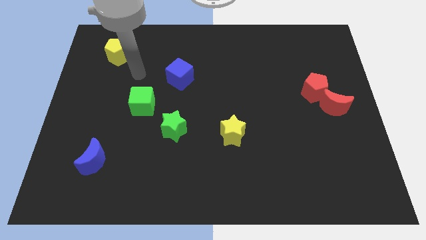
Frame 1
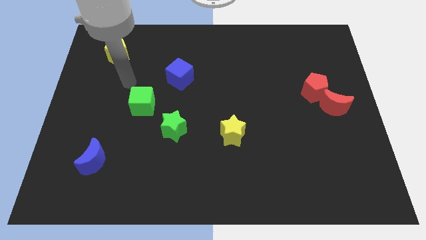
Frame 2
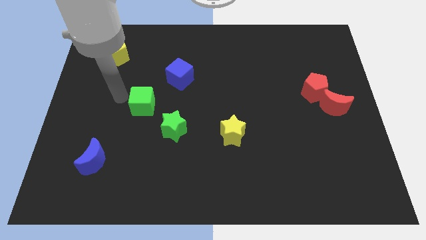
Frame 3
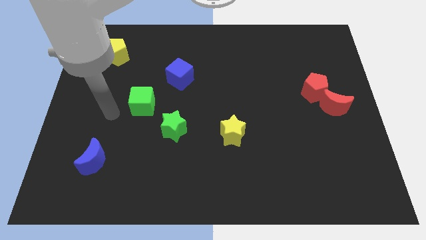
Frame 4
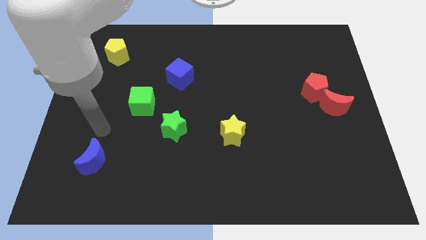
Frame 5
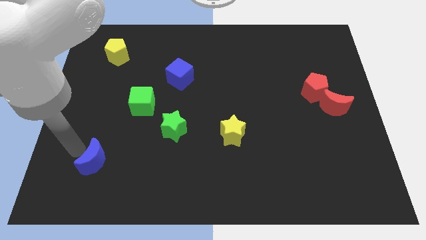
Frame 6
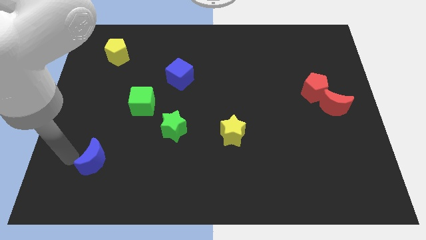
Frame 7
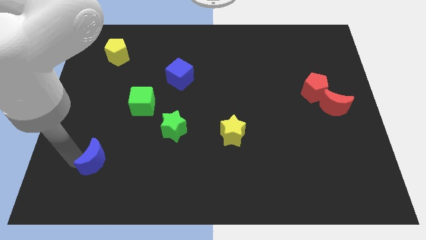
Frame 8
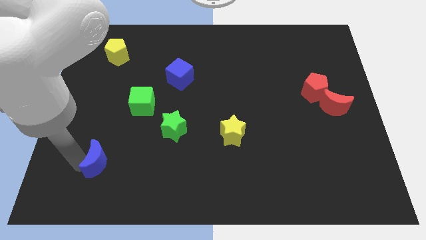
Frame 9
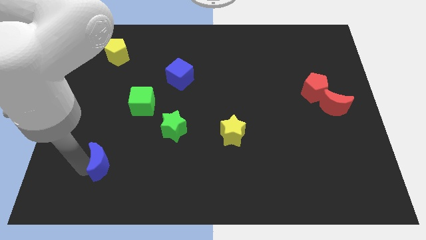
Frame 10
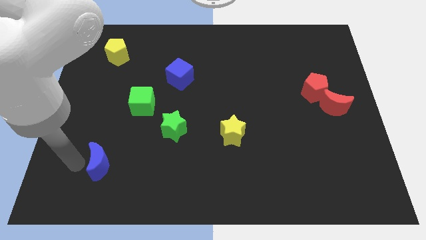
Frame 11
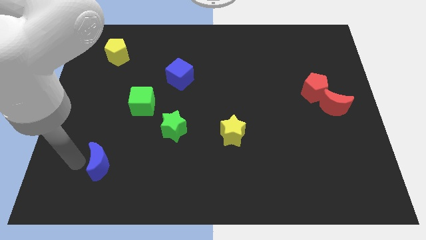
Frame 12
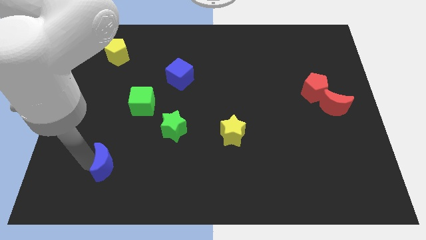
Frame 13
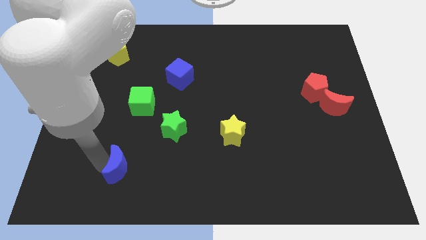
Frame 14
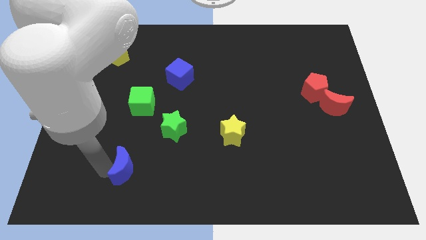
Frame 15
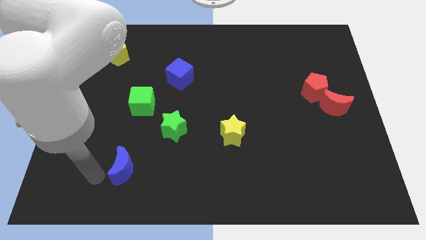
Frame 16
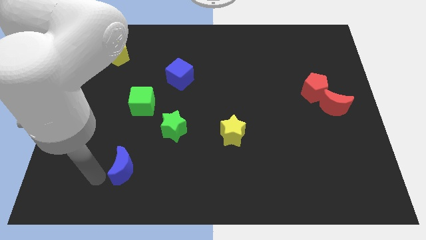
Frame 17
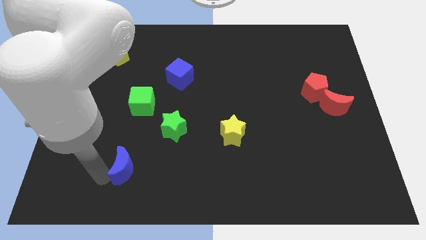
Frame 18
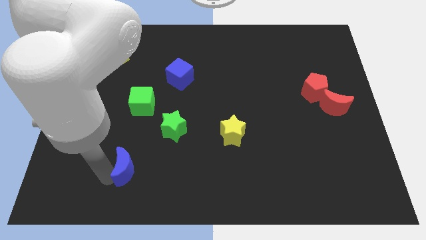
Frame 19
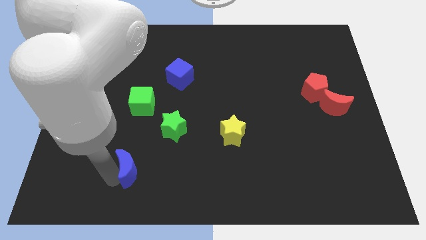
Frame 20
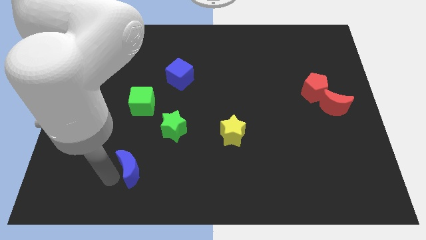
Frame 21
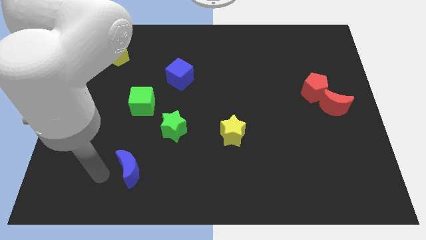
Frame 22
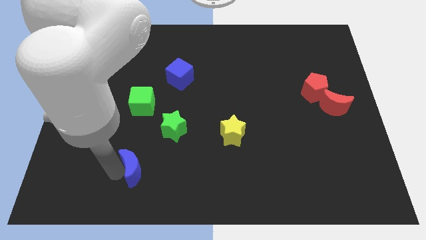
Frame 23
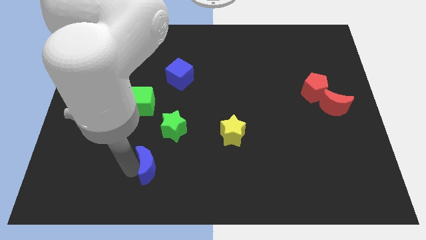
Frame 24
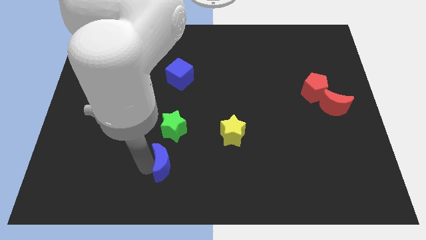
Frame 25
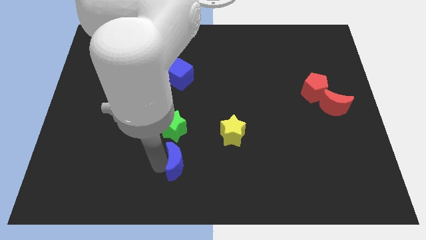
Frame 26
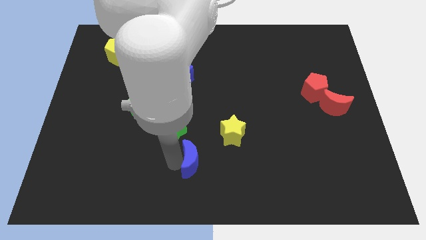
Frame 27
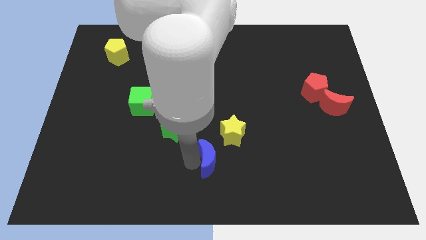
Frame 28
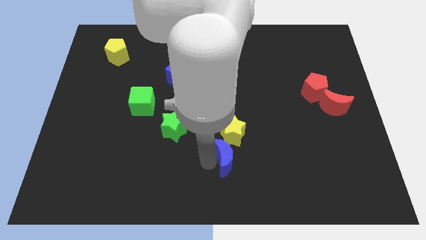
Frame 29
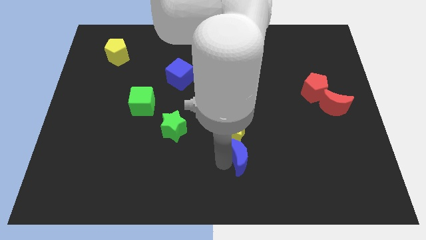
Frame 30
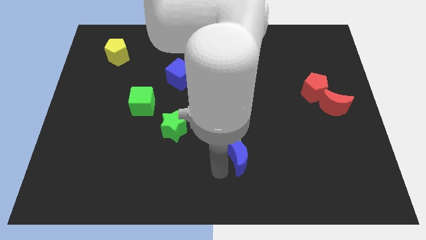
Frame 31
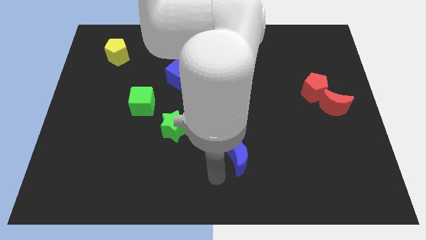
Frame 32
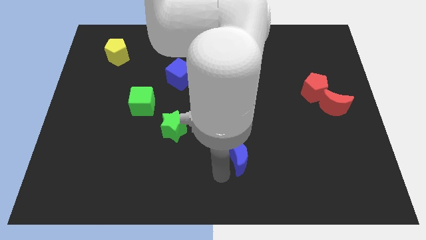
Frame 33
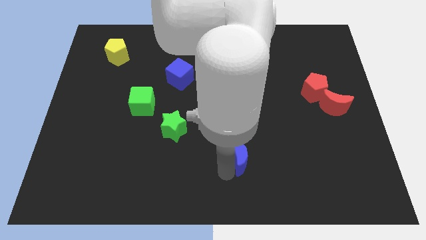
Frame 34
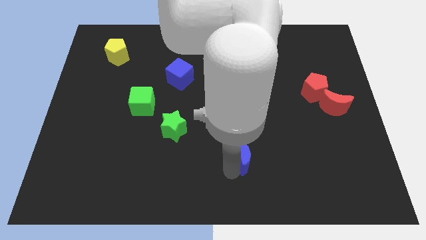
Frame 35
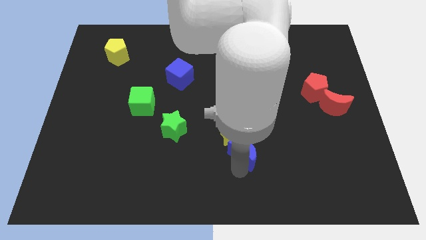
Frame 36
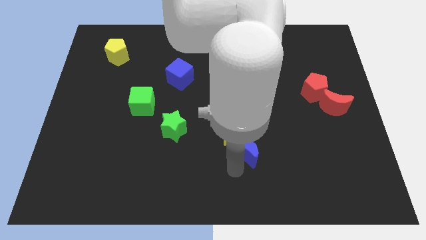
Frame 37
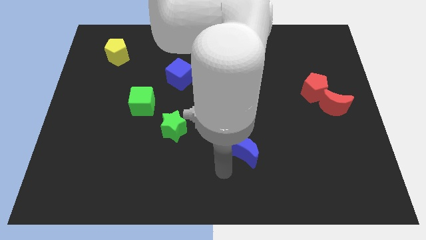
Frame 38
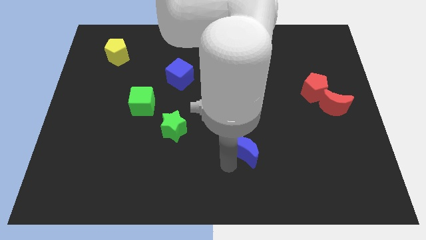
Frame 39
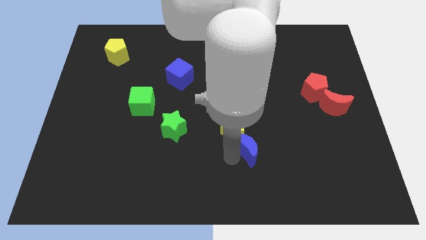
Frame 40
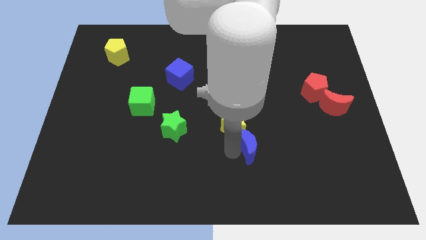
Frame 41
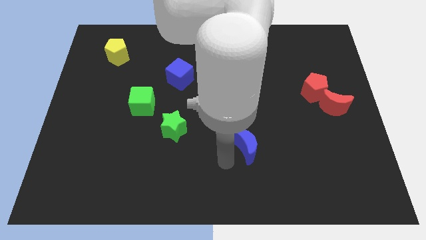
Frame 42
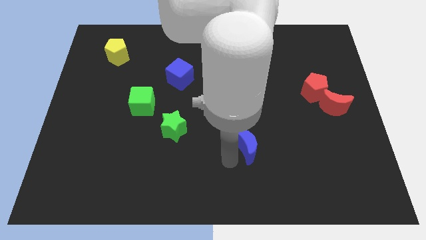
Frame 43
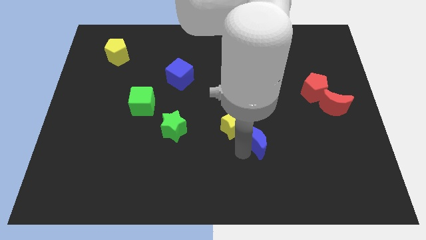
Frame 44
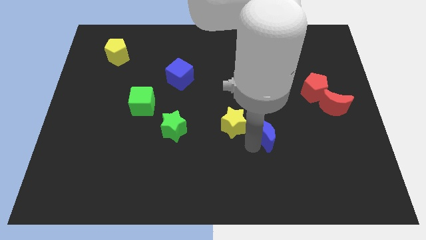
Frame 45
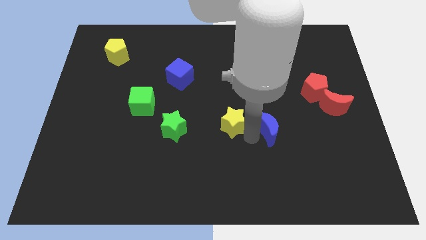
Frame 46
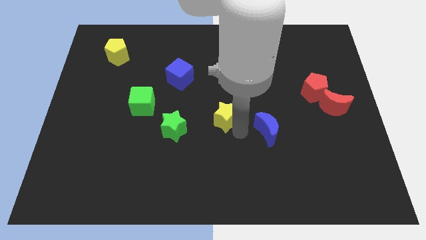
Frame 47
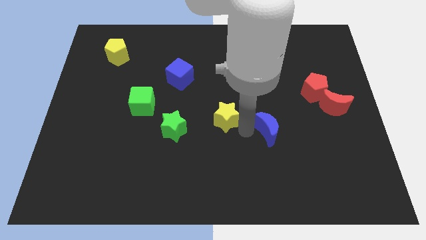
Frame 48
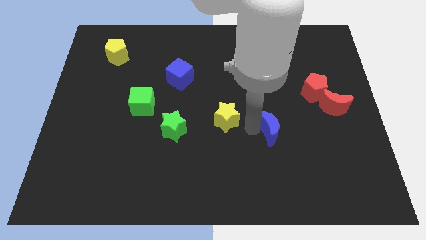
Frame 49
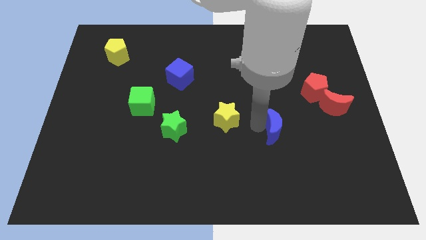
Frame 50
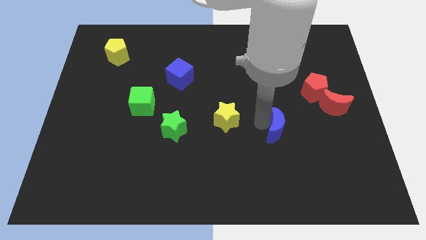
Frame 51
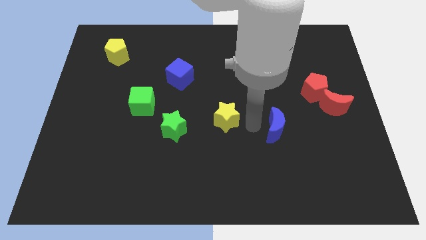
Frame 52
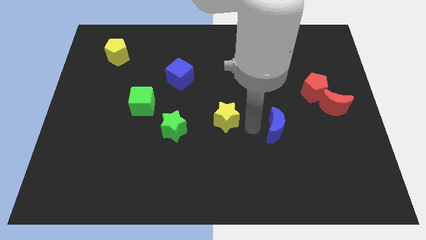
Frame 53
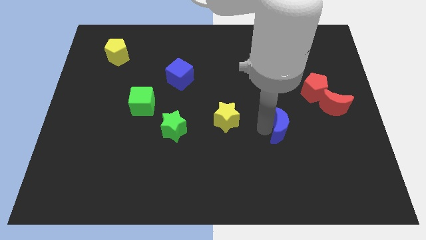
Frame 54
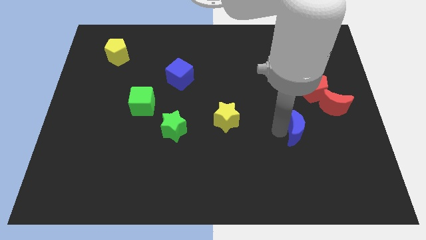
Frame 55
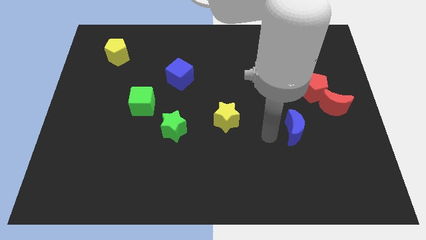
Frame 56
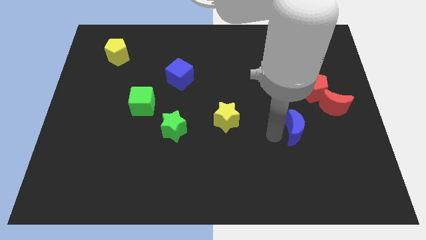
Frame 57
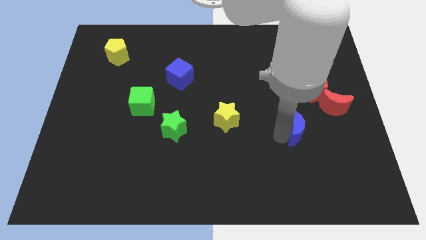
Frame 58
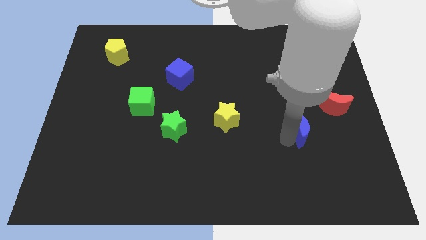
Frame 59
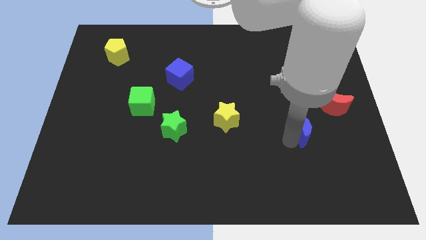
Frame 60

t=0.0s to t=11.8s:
push the blue moon to the bottom of the red pentagon

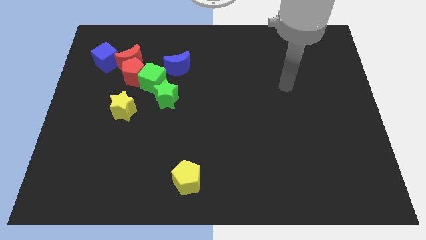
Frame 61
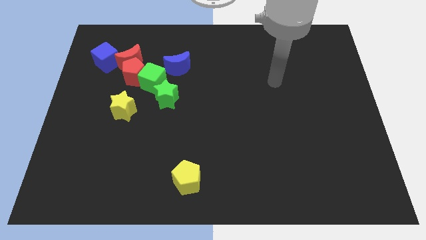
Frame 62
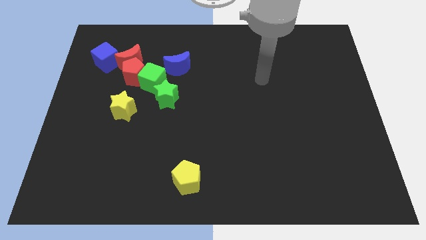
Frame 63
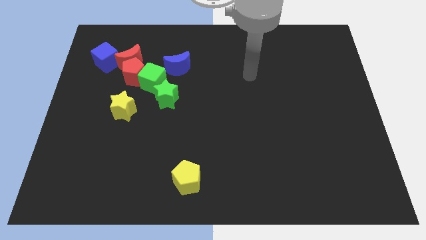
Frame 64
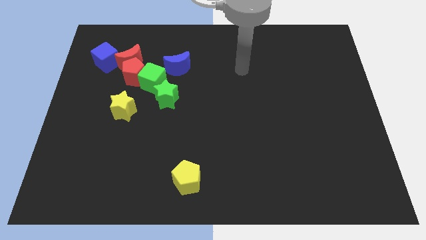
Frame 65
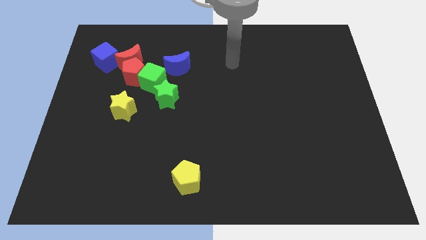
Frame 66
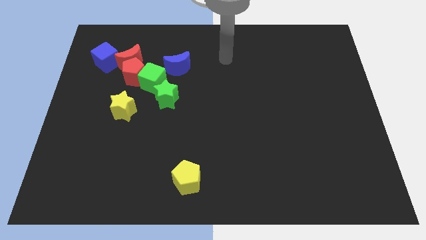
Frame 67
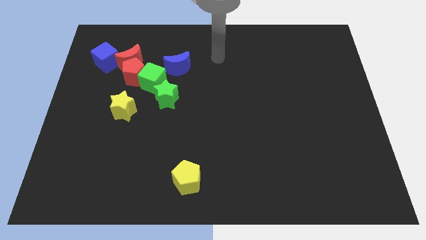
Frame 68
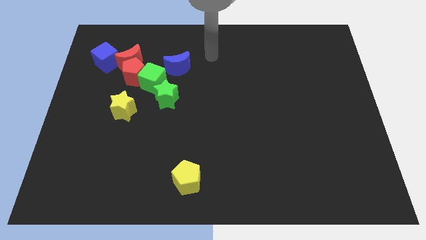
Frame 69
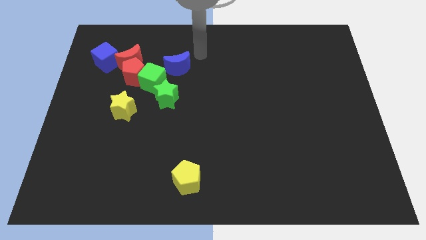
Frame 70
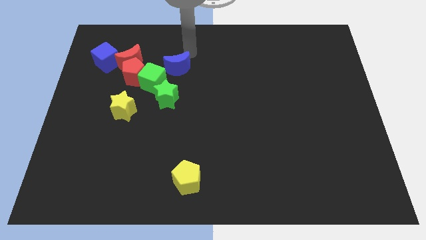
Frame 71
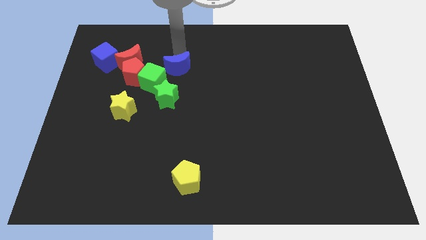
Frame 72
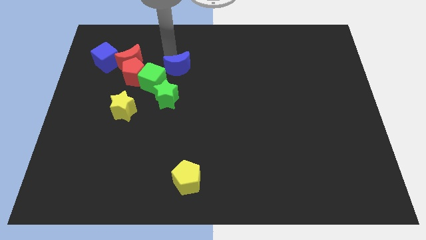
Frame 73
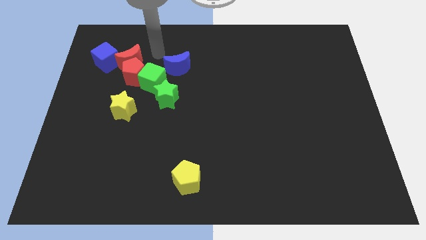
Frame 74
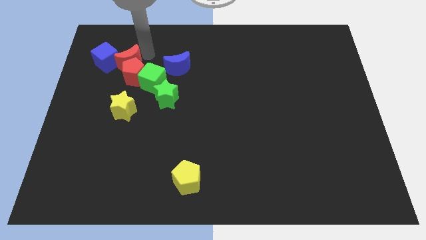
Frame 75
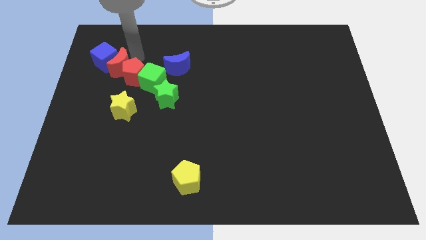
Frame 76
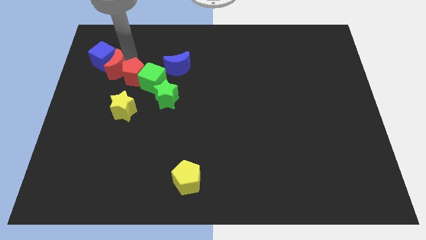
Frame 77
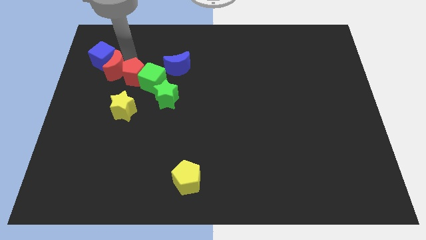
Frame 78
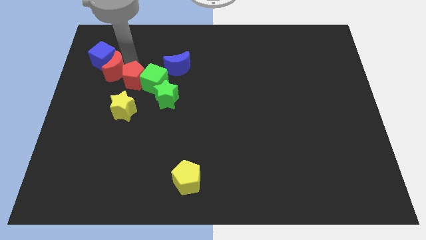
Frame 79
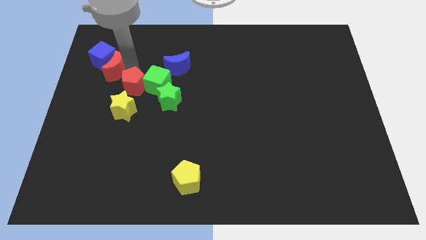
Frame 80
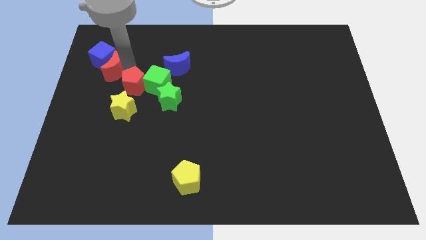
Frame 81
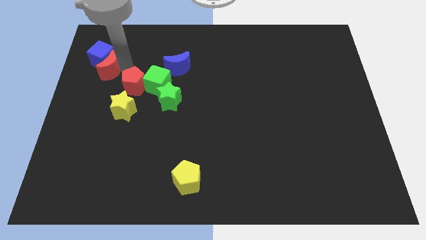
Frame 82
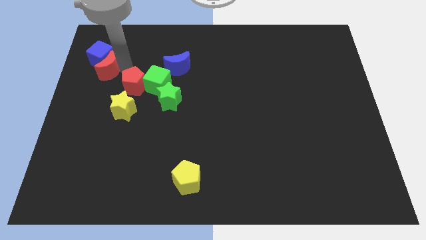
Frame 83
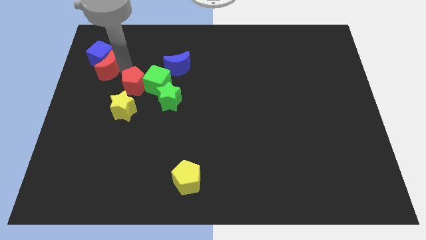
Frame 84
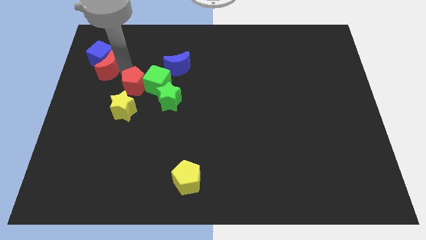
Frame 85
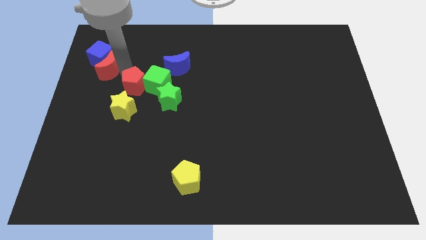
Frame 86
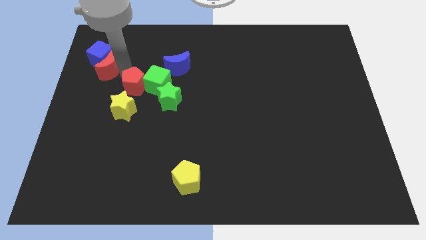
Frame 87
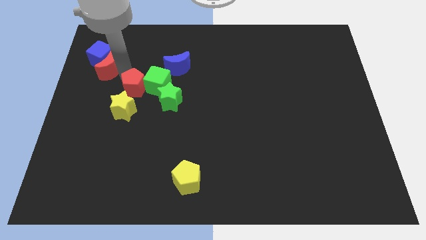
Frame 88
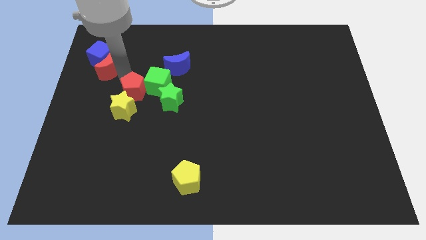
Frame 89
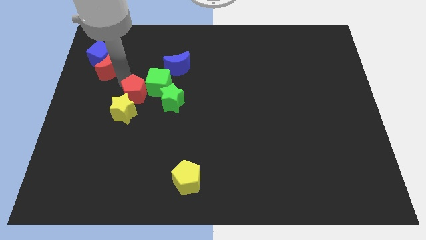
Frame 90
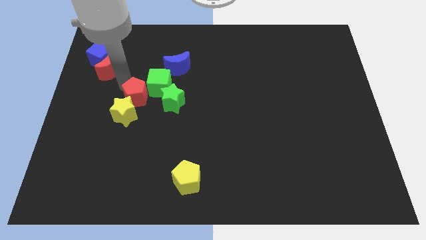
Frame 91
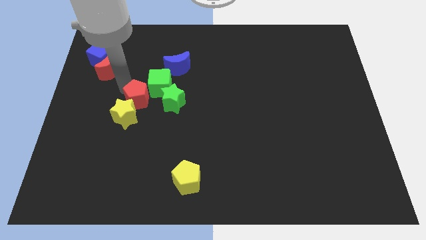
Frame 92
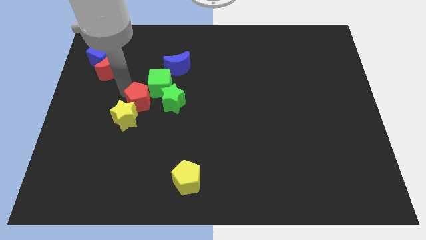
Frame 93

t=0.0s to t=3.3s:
push the red pentagon below the green cube
